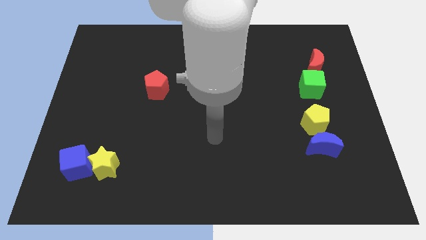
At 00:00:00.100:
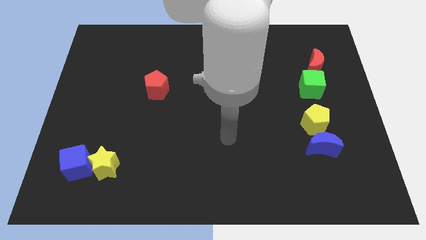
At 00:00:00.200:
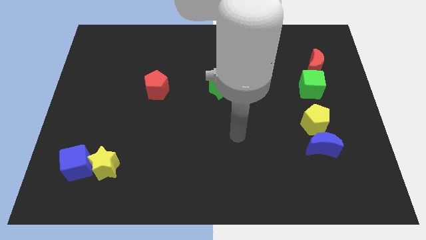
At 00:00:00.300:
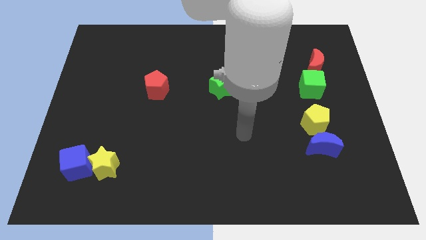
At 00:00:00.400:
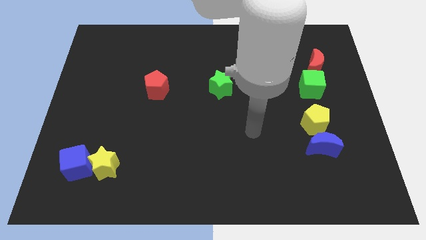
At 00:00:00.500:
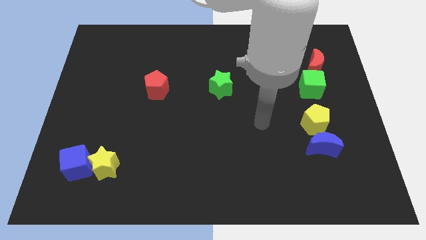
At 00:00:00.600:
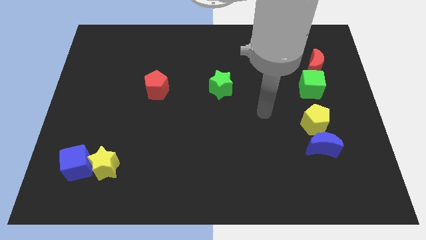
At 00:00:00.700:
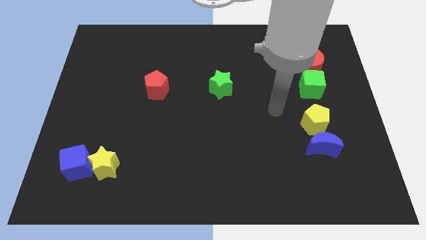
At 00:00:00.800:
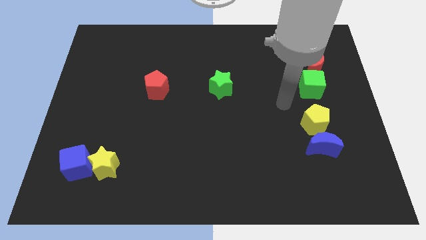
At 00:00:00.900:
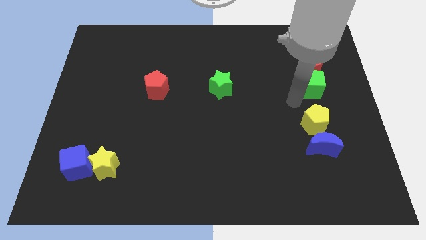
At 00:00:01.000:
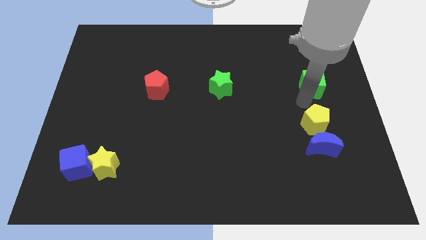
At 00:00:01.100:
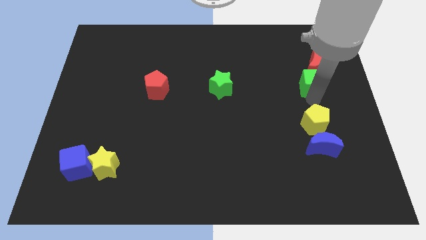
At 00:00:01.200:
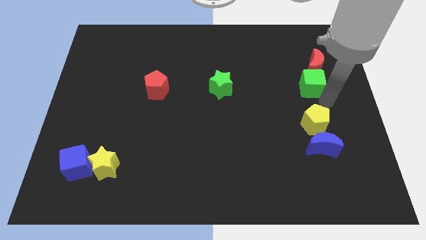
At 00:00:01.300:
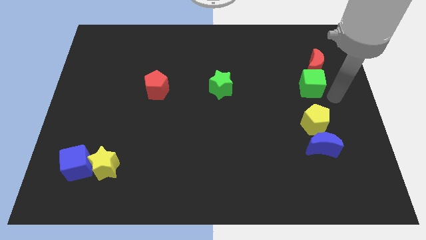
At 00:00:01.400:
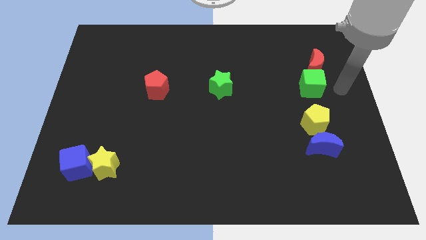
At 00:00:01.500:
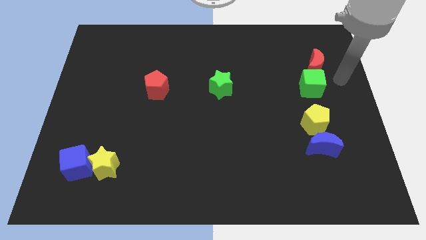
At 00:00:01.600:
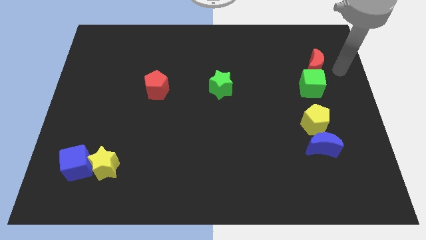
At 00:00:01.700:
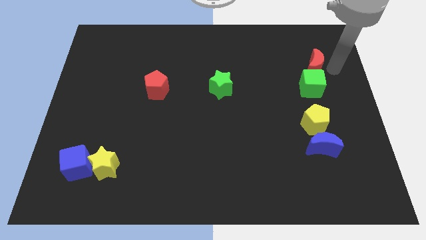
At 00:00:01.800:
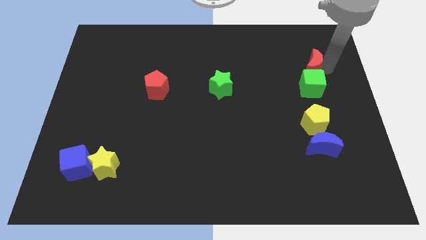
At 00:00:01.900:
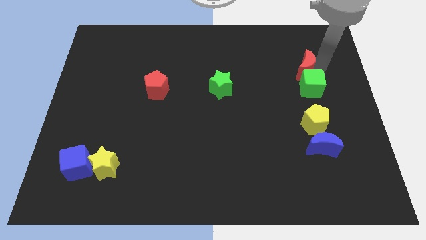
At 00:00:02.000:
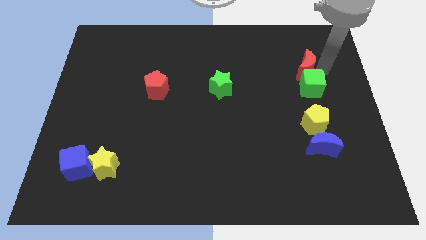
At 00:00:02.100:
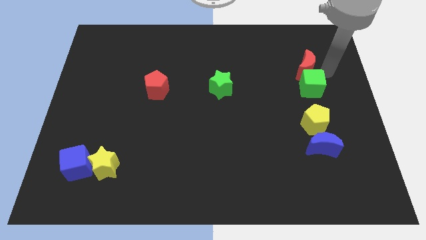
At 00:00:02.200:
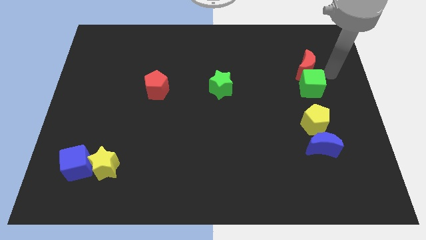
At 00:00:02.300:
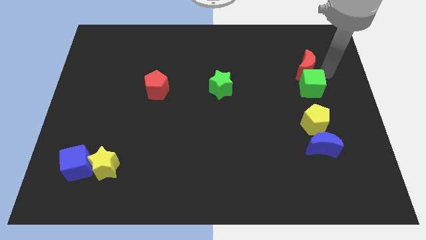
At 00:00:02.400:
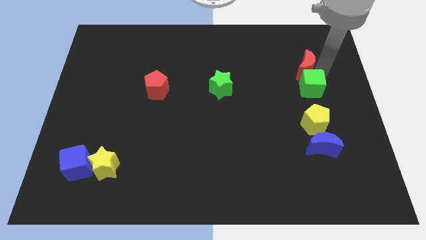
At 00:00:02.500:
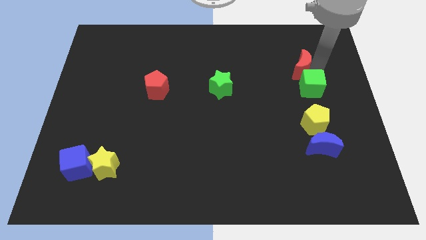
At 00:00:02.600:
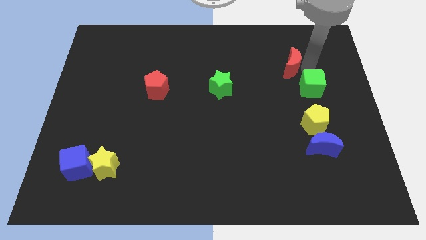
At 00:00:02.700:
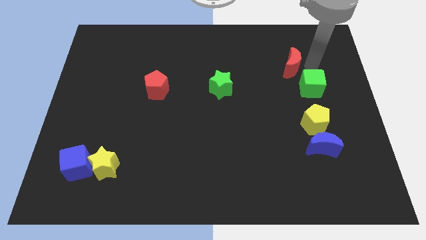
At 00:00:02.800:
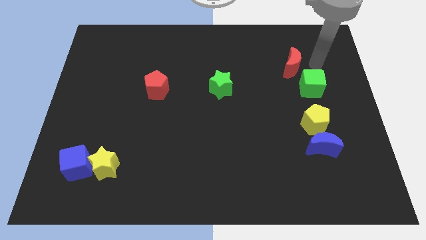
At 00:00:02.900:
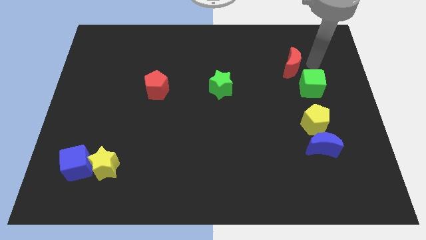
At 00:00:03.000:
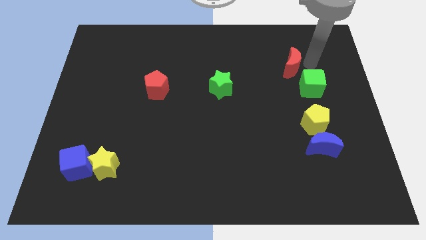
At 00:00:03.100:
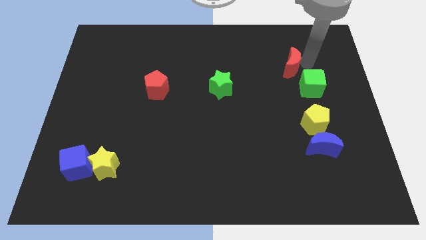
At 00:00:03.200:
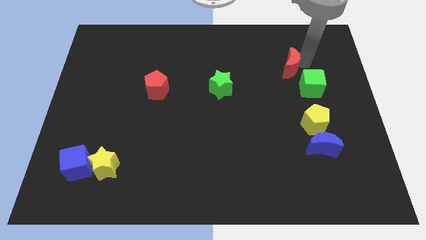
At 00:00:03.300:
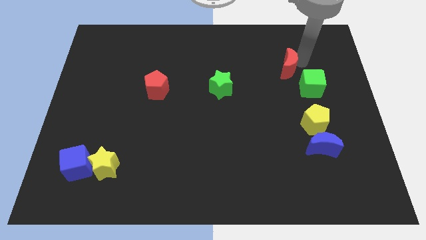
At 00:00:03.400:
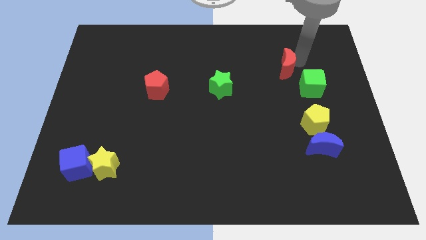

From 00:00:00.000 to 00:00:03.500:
move the red moon a little bit to the left

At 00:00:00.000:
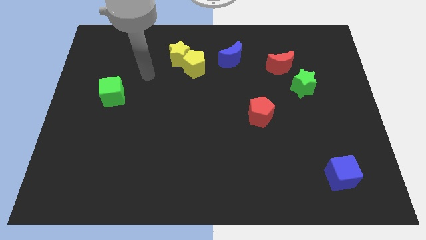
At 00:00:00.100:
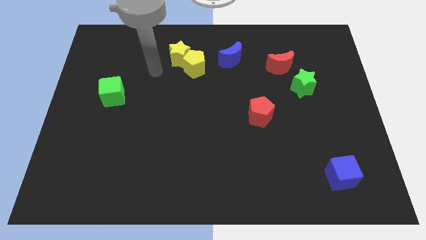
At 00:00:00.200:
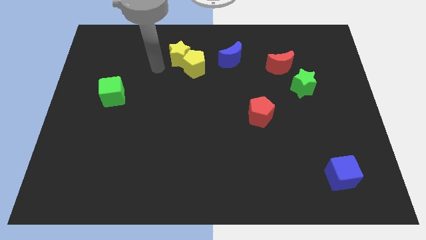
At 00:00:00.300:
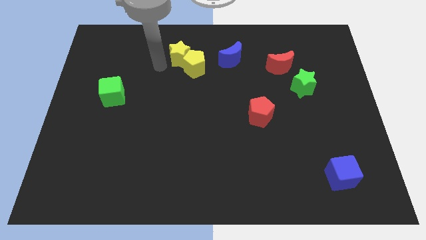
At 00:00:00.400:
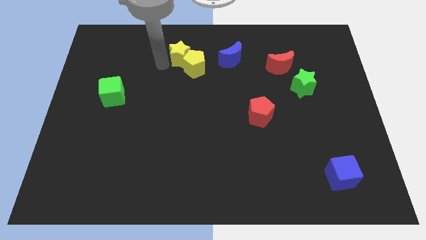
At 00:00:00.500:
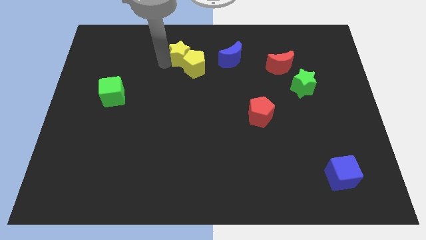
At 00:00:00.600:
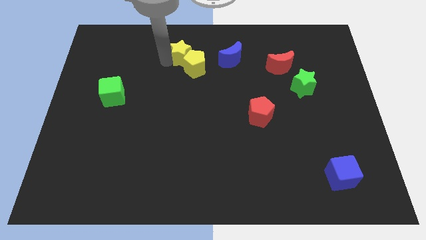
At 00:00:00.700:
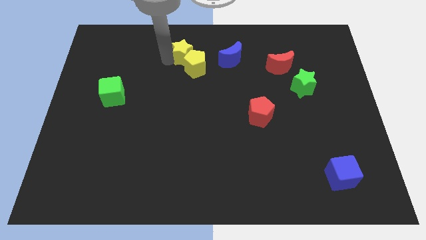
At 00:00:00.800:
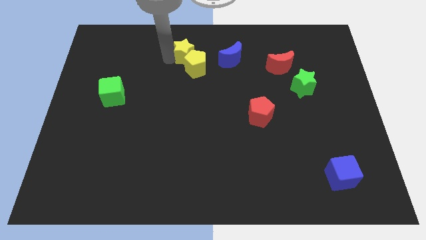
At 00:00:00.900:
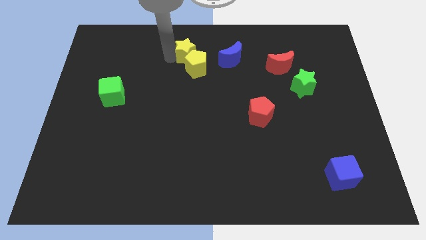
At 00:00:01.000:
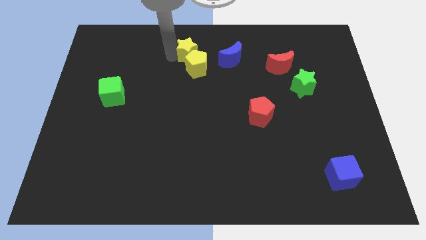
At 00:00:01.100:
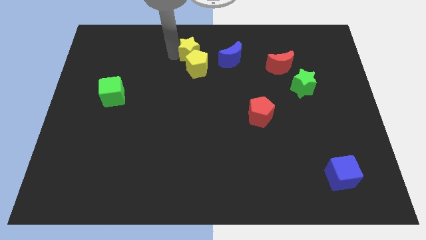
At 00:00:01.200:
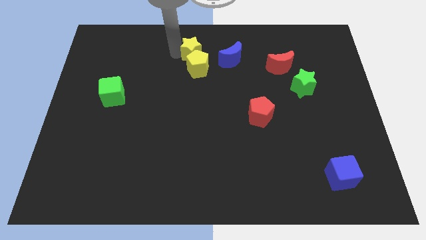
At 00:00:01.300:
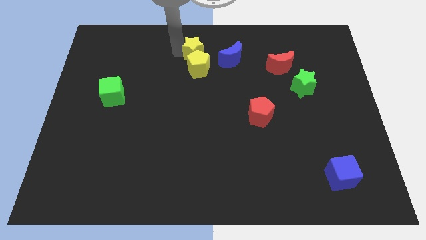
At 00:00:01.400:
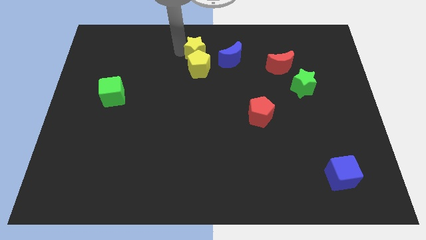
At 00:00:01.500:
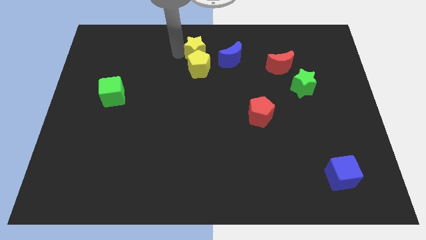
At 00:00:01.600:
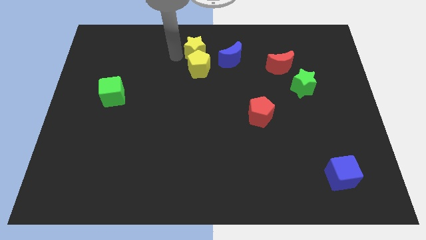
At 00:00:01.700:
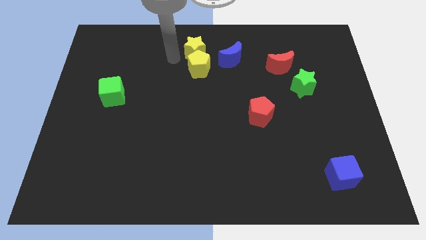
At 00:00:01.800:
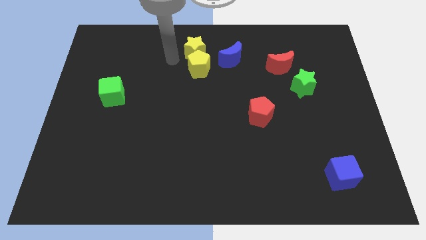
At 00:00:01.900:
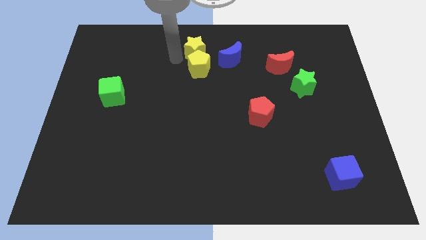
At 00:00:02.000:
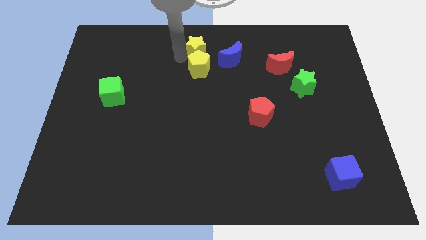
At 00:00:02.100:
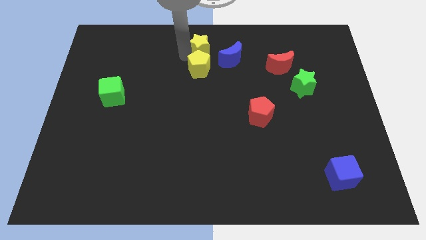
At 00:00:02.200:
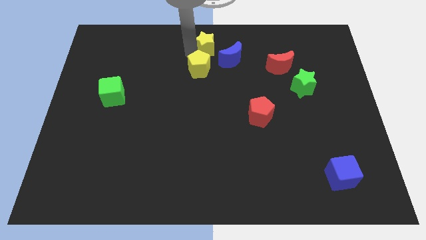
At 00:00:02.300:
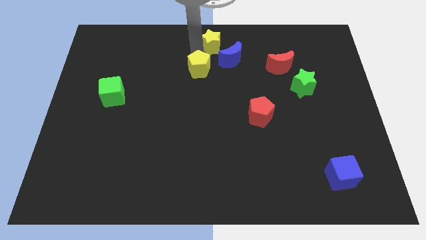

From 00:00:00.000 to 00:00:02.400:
slide the yellow star to the right a little

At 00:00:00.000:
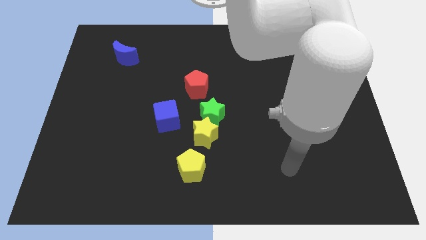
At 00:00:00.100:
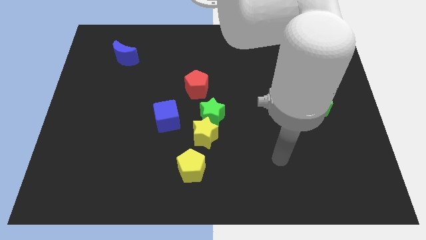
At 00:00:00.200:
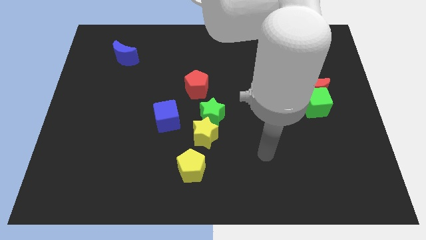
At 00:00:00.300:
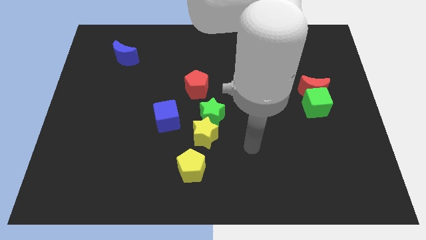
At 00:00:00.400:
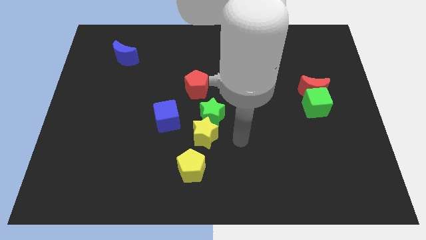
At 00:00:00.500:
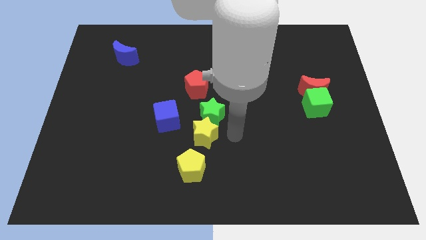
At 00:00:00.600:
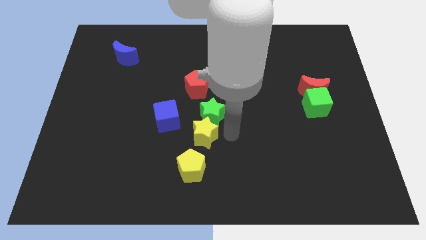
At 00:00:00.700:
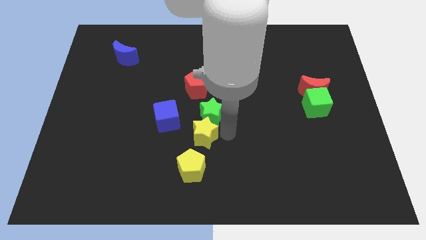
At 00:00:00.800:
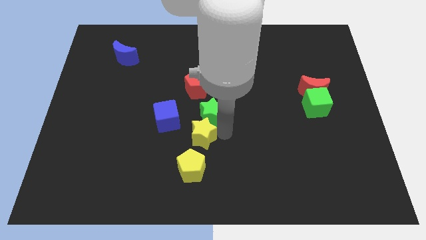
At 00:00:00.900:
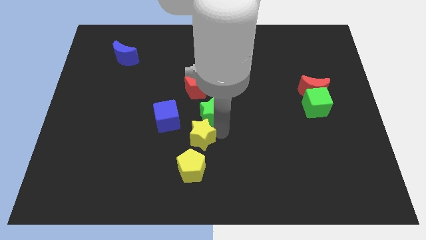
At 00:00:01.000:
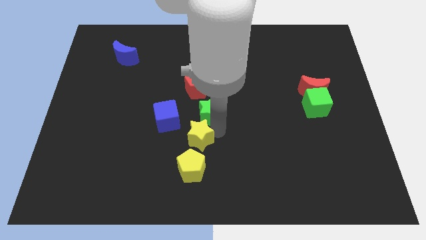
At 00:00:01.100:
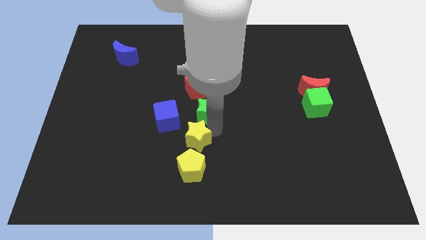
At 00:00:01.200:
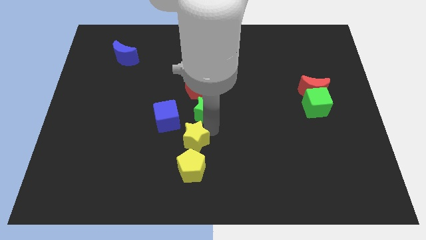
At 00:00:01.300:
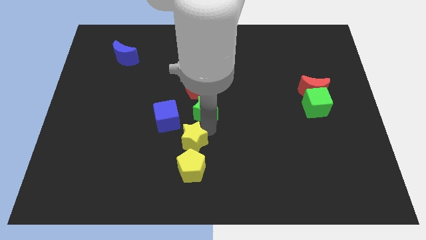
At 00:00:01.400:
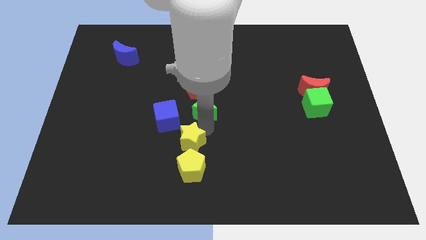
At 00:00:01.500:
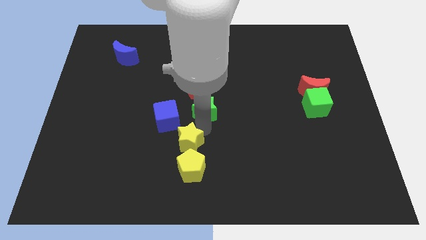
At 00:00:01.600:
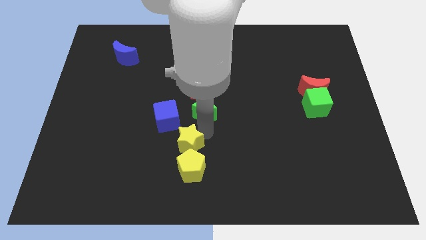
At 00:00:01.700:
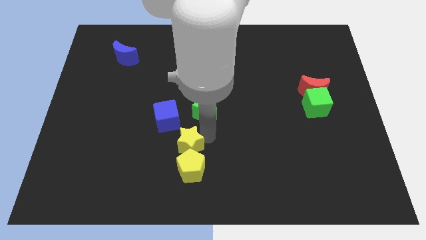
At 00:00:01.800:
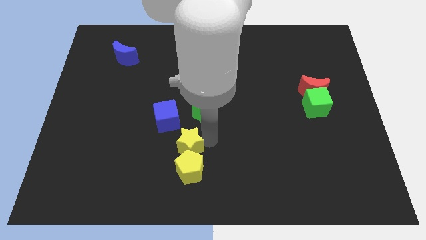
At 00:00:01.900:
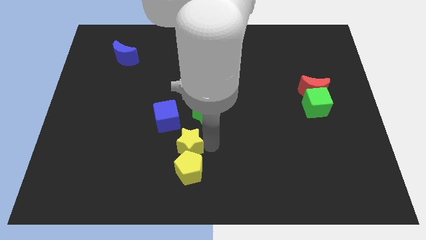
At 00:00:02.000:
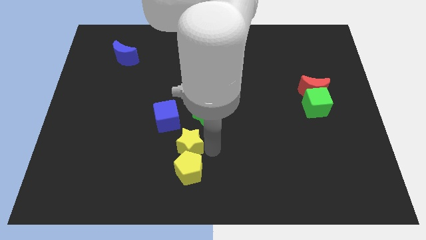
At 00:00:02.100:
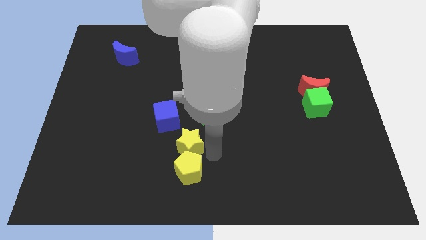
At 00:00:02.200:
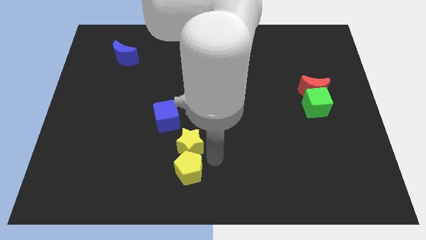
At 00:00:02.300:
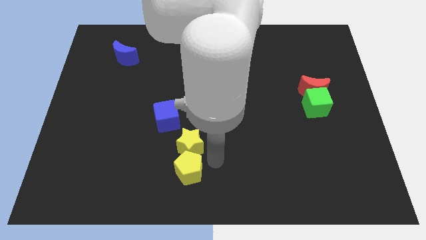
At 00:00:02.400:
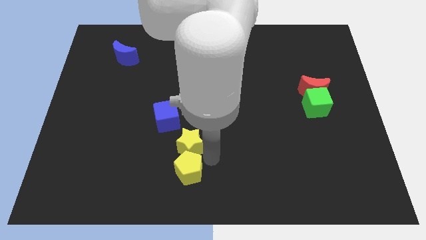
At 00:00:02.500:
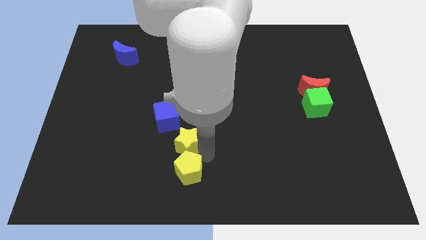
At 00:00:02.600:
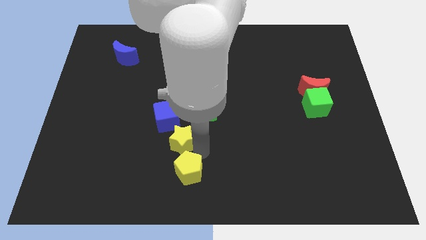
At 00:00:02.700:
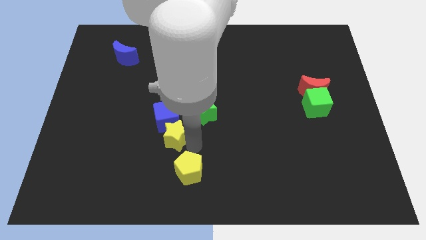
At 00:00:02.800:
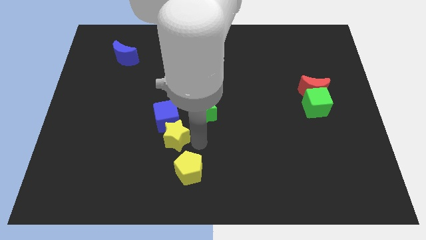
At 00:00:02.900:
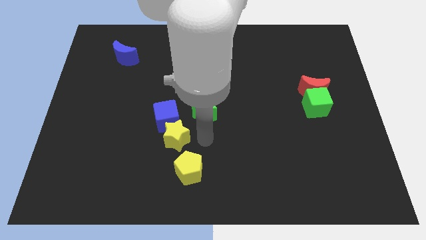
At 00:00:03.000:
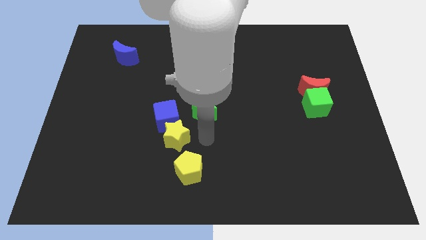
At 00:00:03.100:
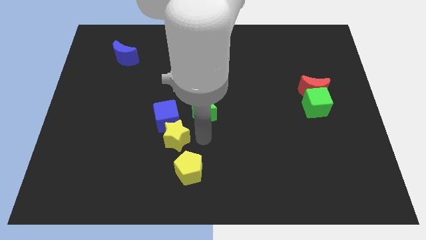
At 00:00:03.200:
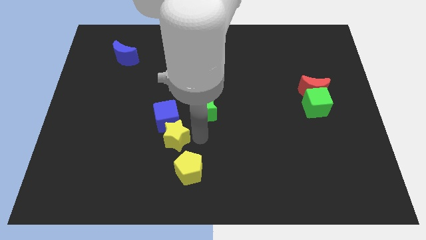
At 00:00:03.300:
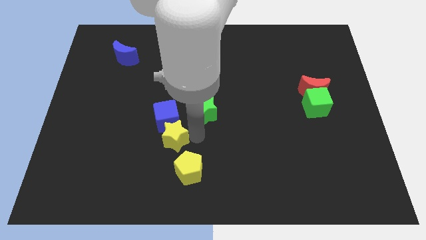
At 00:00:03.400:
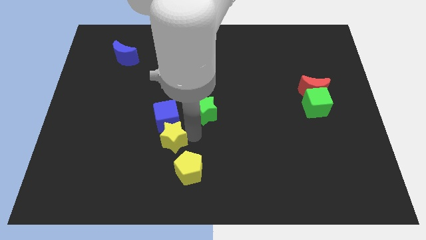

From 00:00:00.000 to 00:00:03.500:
slightly push the yellow star left
